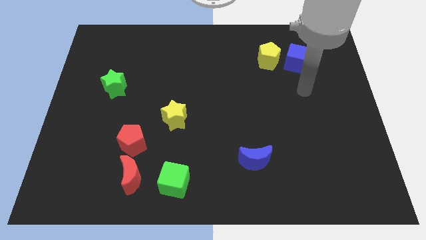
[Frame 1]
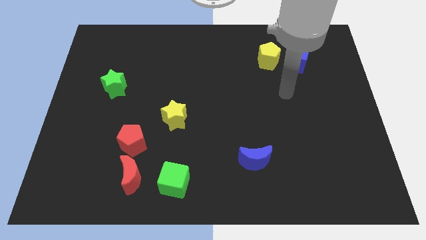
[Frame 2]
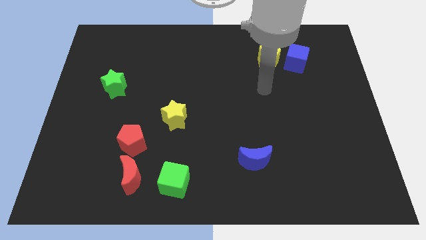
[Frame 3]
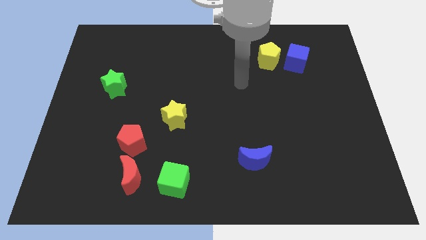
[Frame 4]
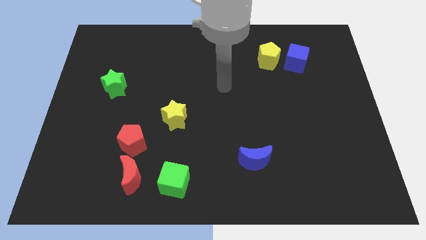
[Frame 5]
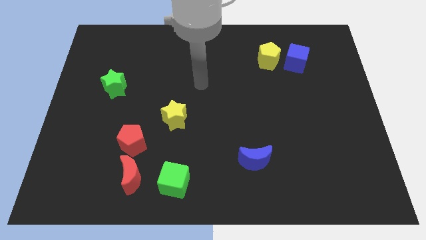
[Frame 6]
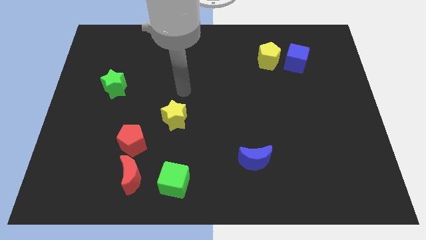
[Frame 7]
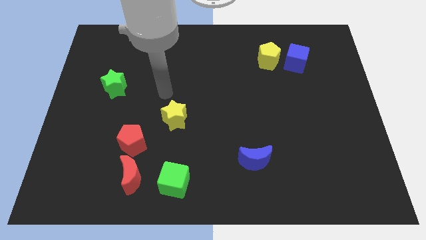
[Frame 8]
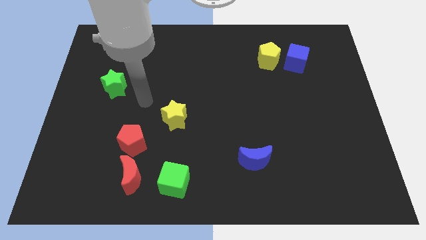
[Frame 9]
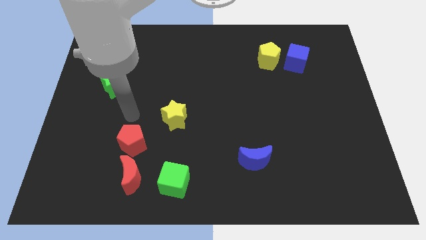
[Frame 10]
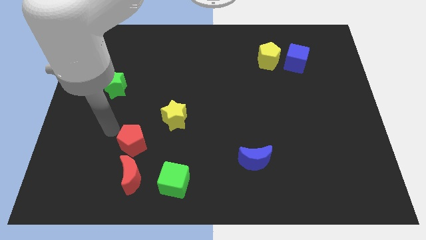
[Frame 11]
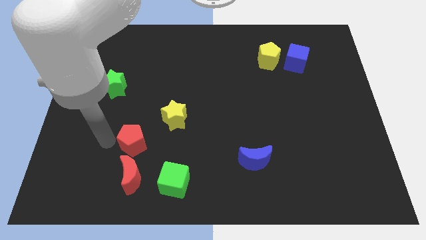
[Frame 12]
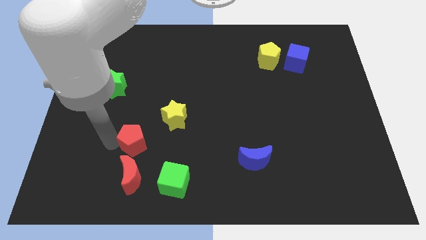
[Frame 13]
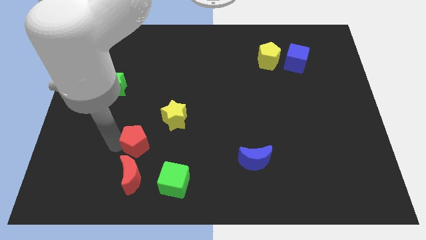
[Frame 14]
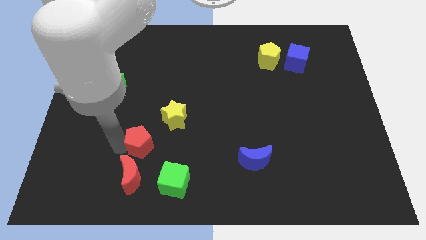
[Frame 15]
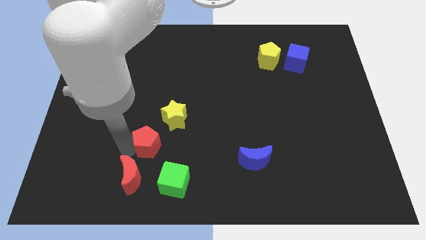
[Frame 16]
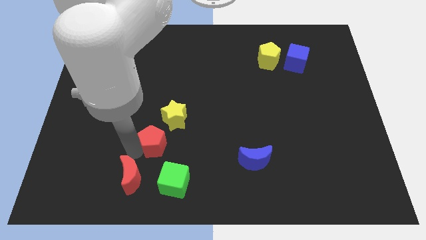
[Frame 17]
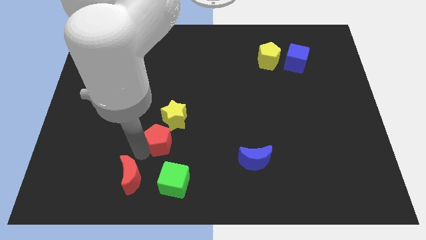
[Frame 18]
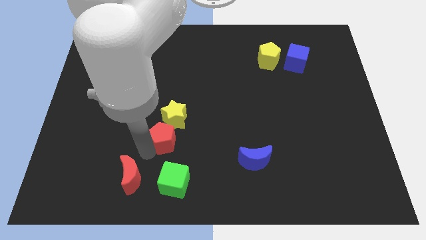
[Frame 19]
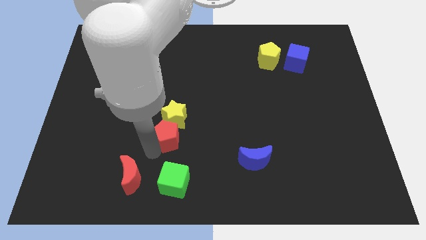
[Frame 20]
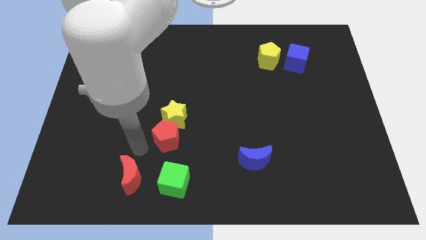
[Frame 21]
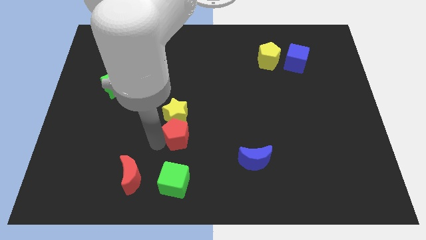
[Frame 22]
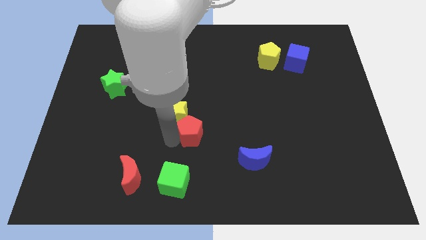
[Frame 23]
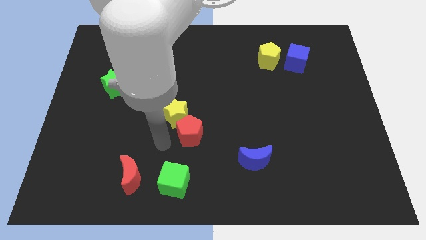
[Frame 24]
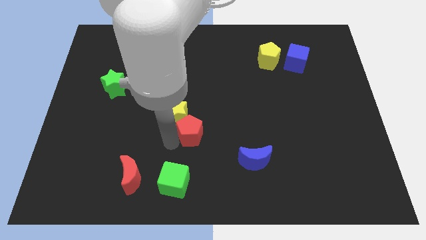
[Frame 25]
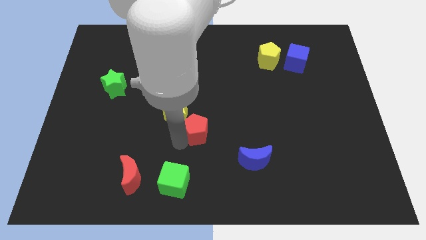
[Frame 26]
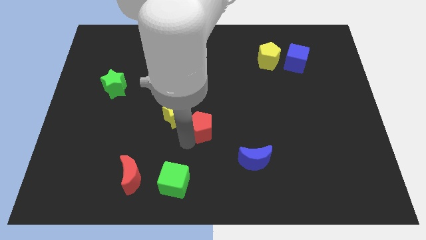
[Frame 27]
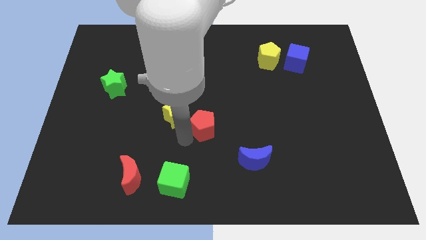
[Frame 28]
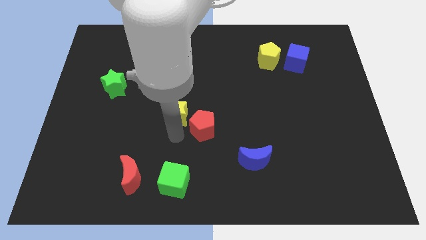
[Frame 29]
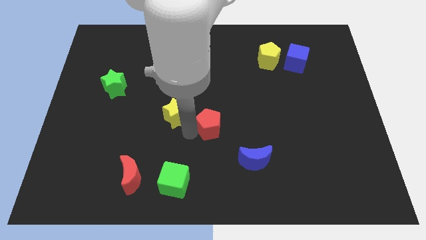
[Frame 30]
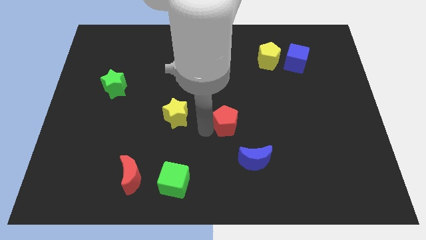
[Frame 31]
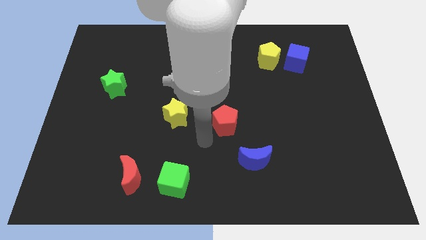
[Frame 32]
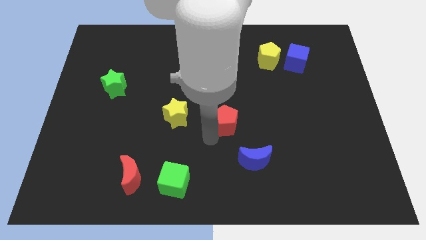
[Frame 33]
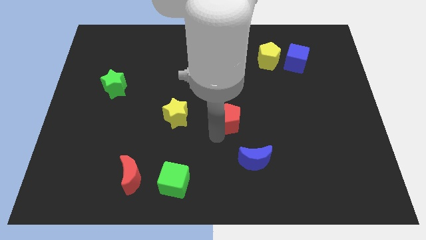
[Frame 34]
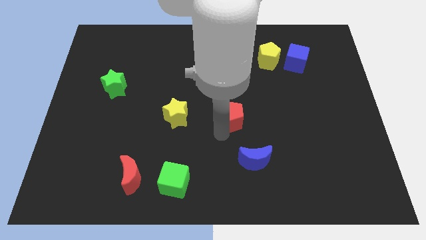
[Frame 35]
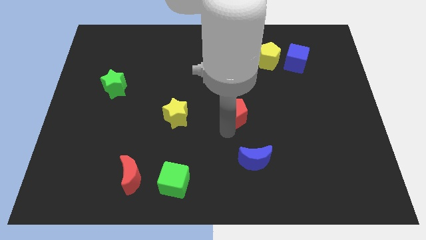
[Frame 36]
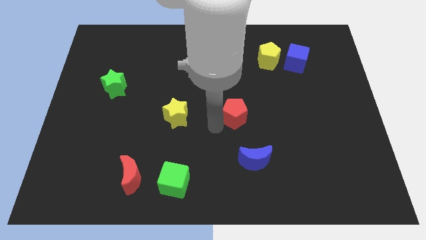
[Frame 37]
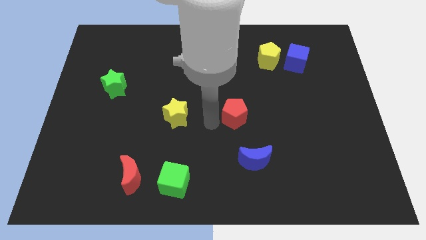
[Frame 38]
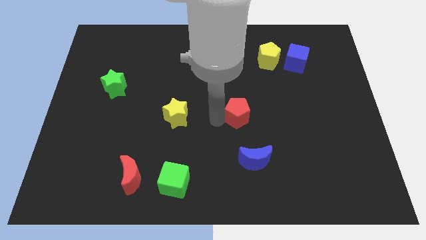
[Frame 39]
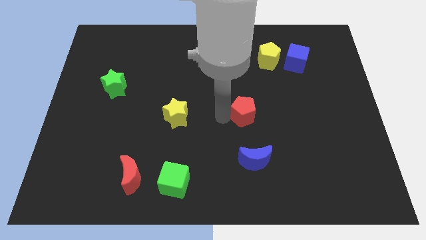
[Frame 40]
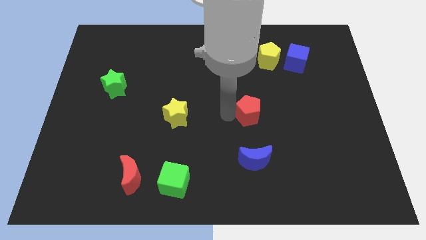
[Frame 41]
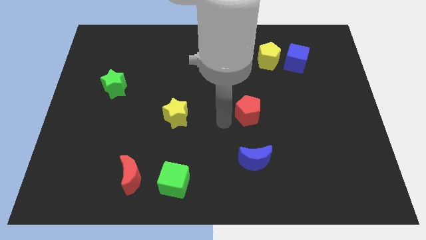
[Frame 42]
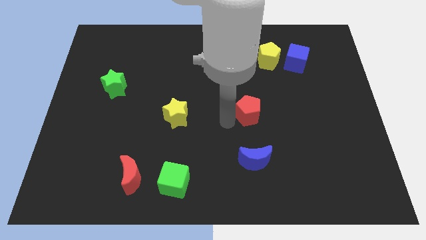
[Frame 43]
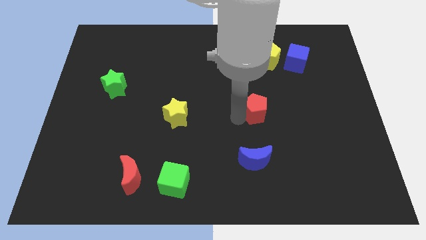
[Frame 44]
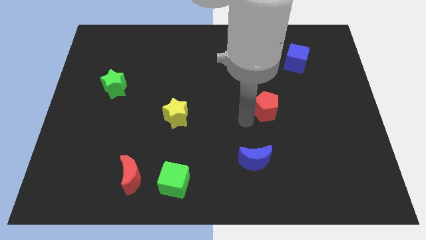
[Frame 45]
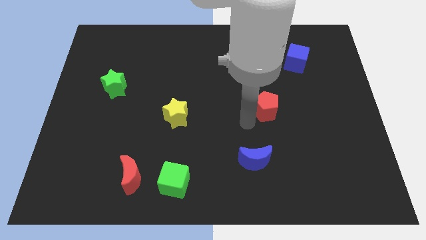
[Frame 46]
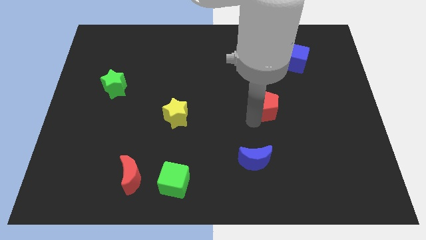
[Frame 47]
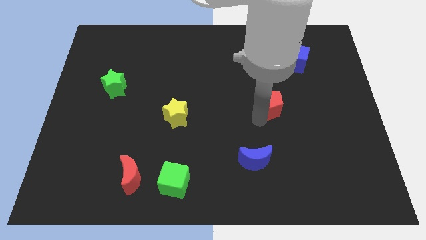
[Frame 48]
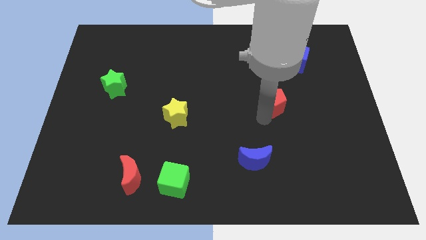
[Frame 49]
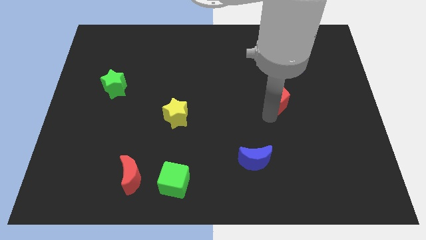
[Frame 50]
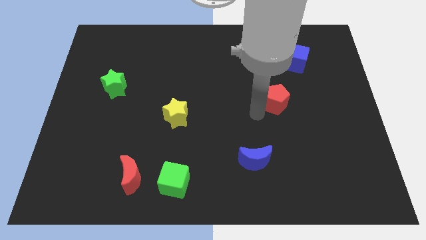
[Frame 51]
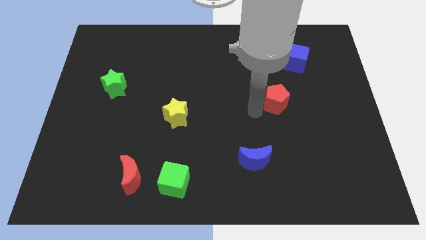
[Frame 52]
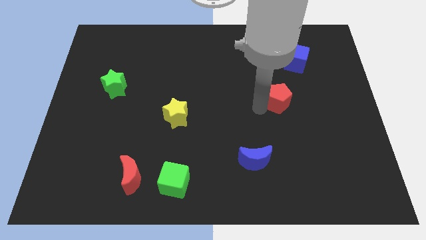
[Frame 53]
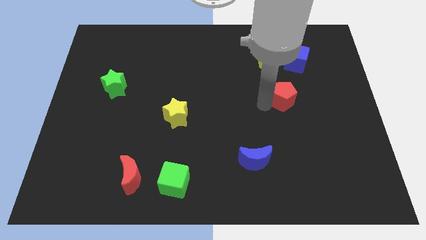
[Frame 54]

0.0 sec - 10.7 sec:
push the red pentagon to the bottom side of the blue cube
